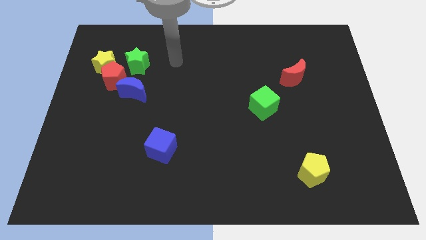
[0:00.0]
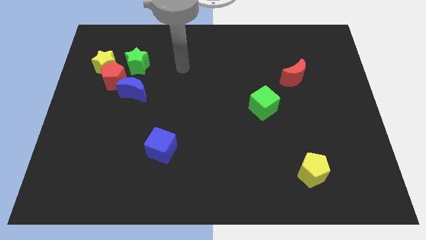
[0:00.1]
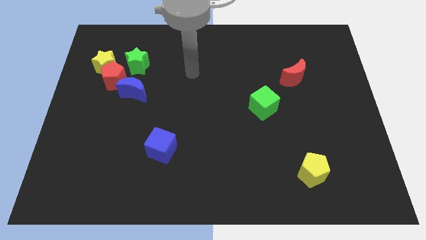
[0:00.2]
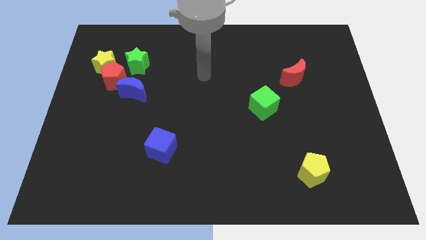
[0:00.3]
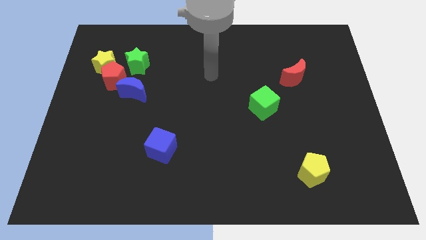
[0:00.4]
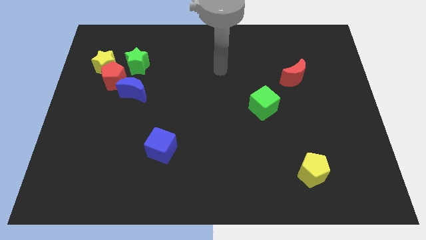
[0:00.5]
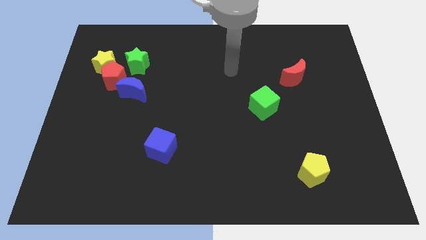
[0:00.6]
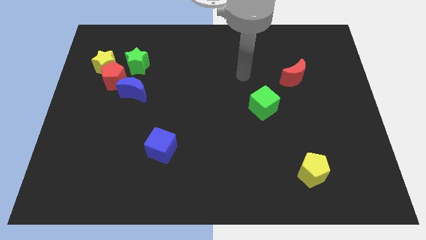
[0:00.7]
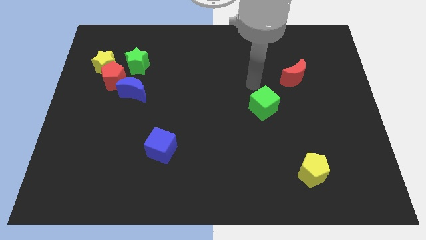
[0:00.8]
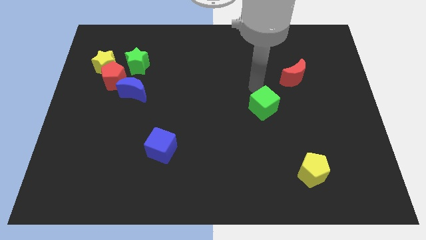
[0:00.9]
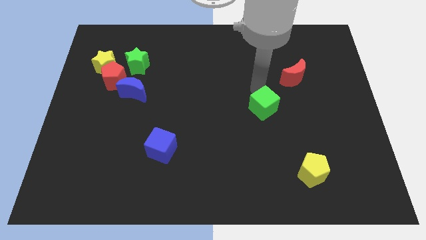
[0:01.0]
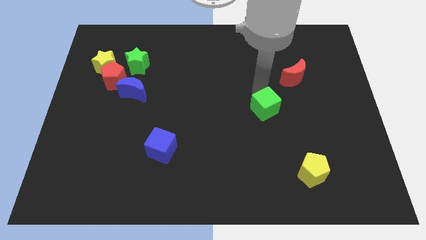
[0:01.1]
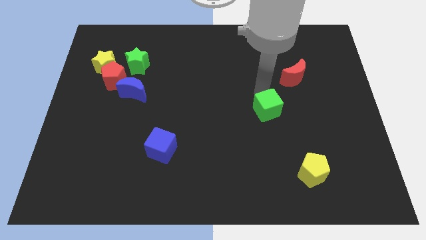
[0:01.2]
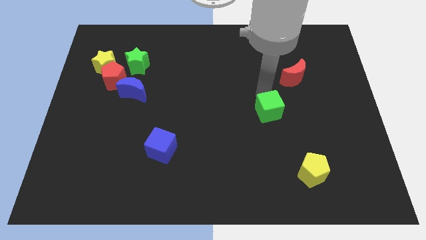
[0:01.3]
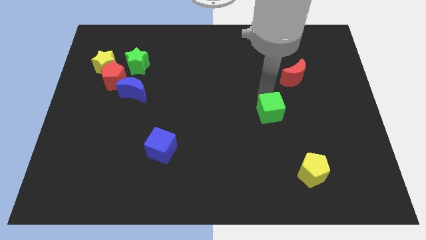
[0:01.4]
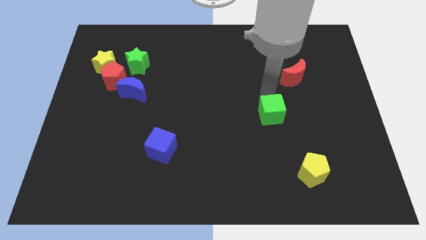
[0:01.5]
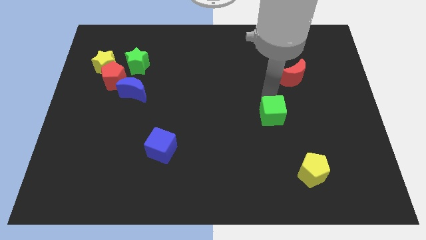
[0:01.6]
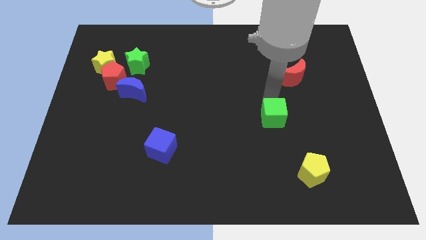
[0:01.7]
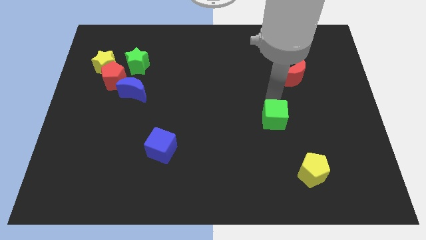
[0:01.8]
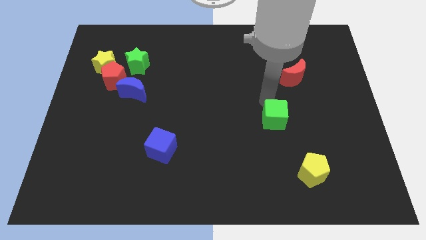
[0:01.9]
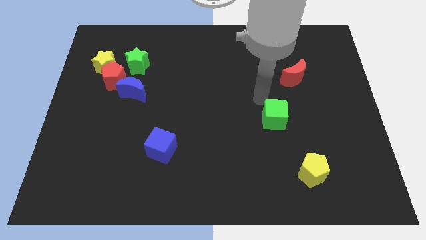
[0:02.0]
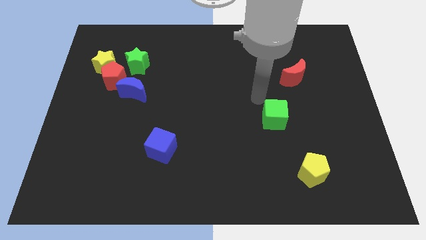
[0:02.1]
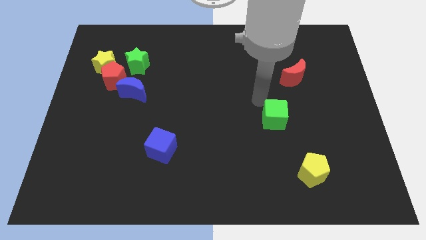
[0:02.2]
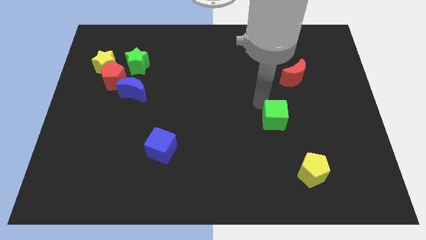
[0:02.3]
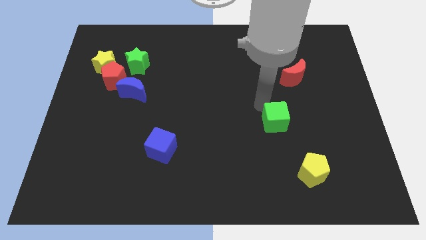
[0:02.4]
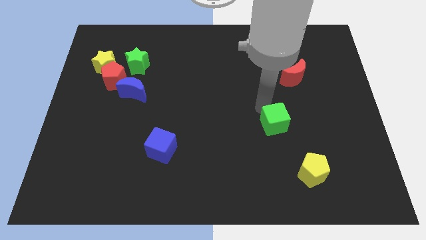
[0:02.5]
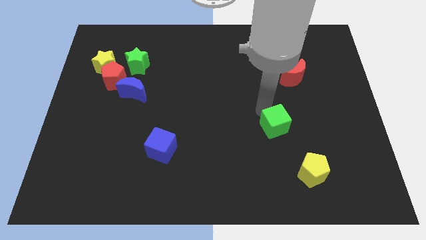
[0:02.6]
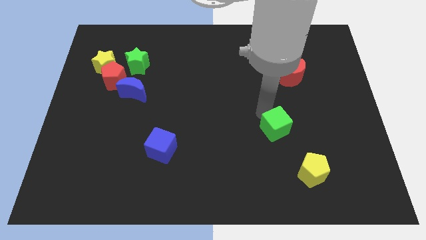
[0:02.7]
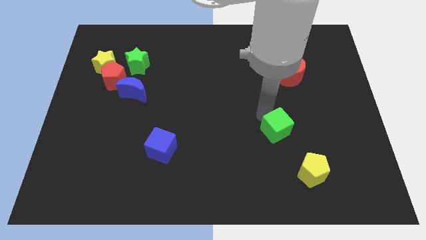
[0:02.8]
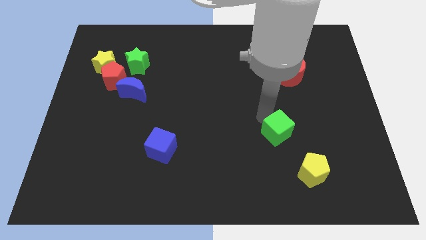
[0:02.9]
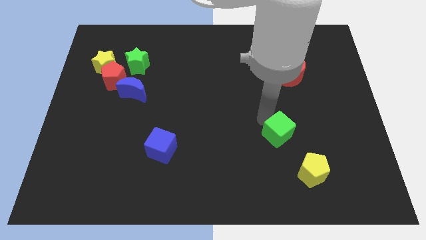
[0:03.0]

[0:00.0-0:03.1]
move the green cube somewhat downwards and right

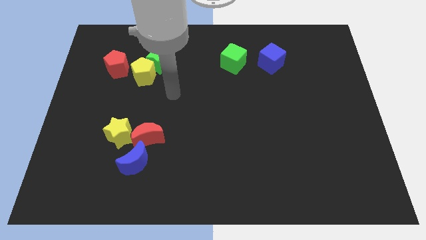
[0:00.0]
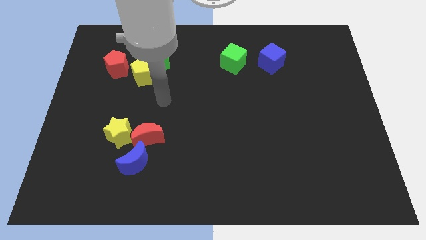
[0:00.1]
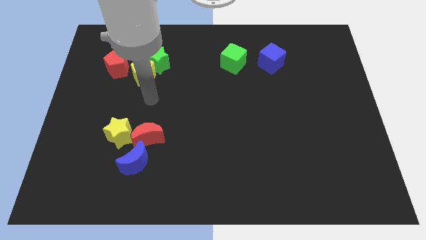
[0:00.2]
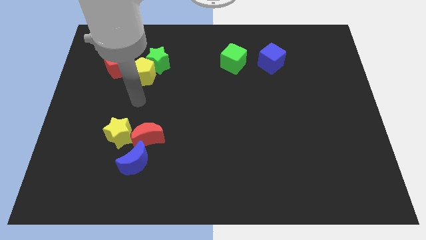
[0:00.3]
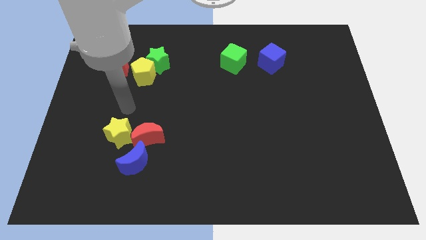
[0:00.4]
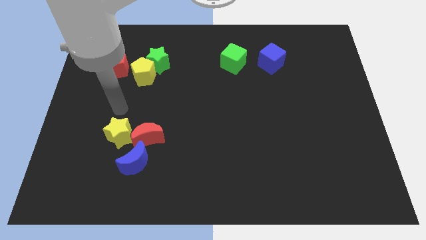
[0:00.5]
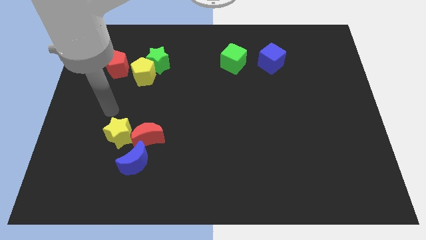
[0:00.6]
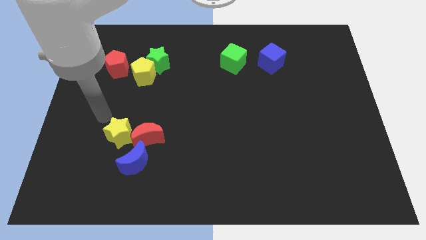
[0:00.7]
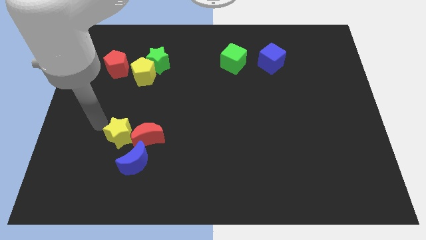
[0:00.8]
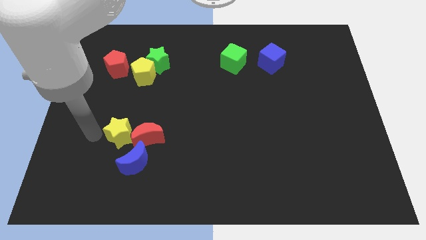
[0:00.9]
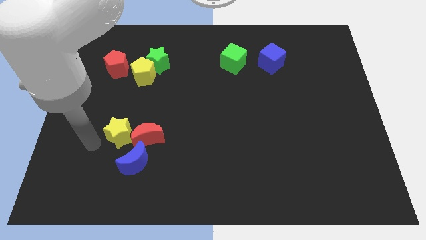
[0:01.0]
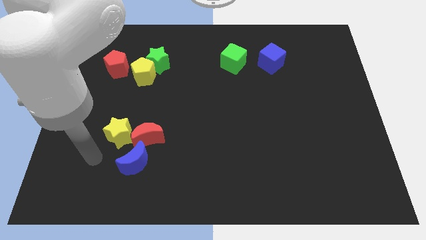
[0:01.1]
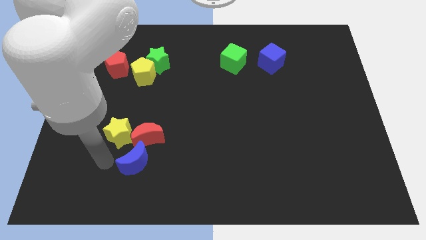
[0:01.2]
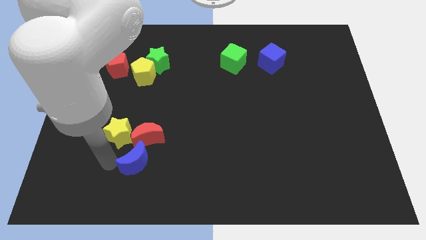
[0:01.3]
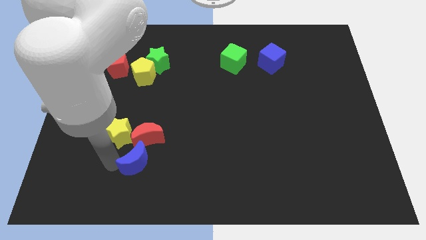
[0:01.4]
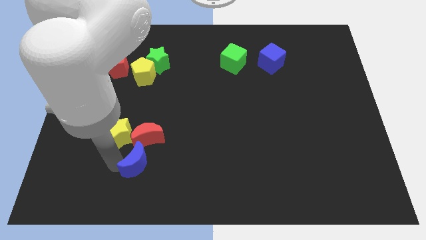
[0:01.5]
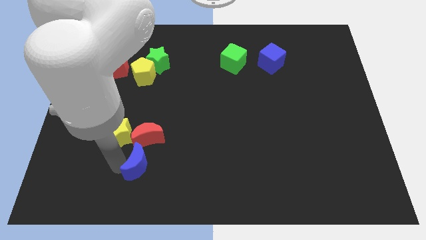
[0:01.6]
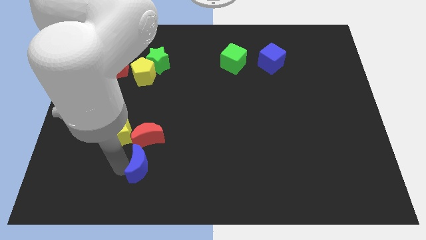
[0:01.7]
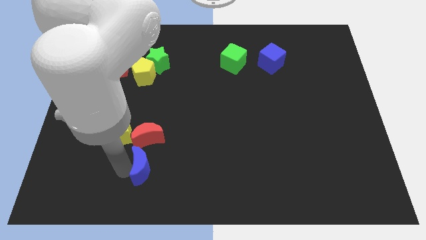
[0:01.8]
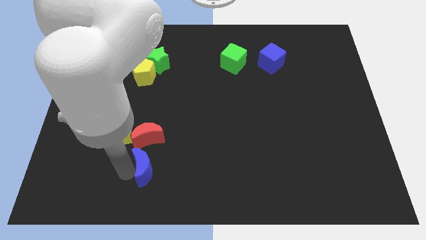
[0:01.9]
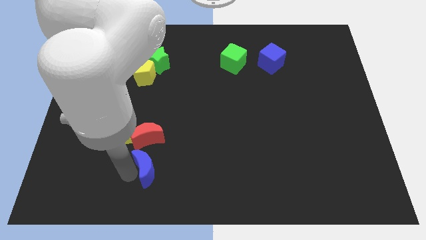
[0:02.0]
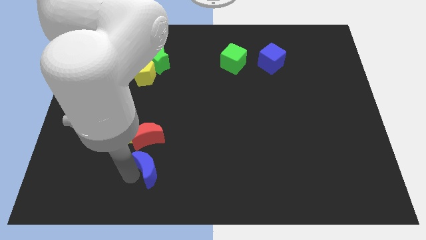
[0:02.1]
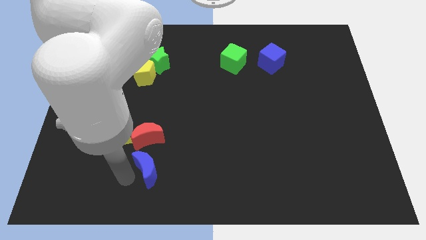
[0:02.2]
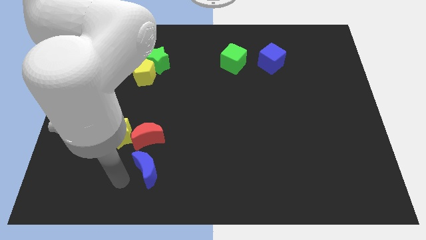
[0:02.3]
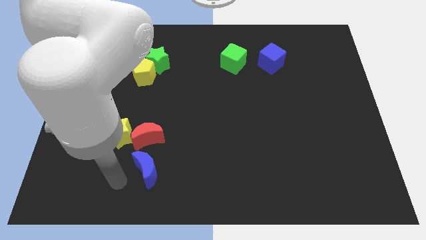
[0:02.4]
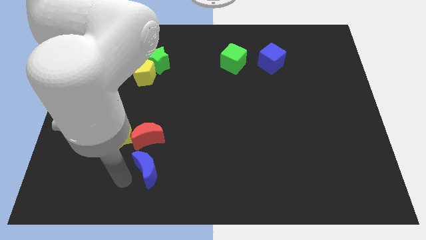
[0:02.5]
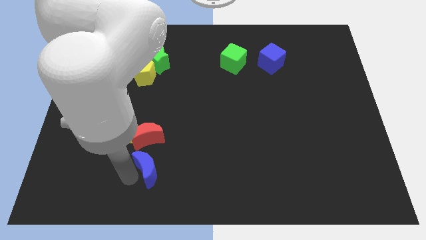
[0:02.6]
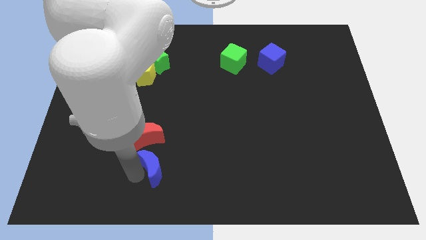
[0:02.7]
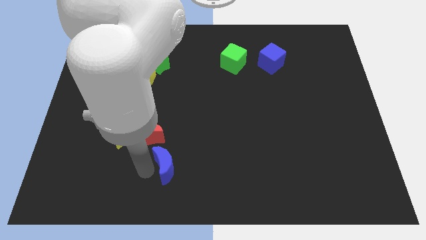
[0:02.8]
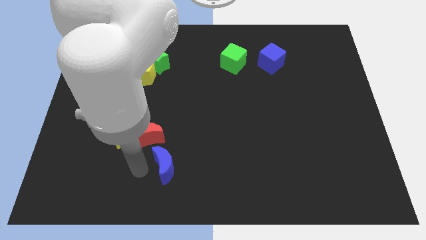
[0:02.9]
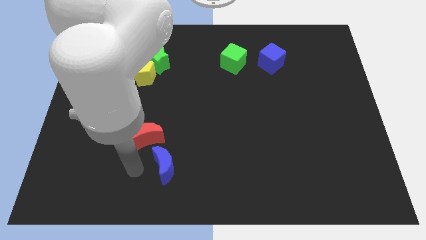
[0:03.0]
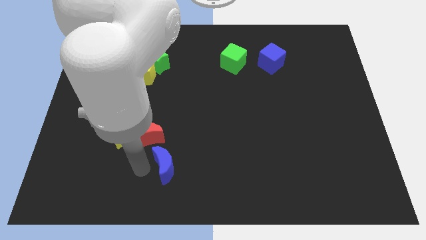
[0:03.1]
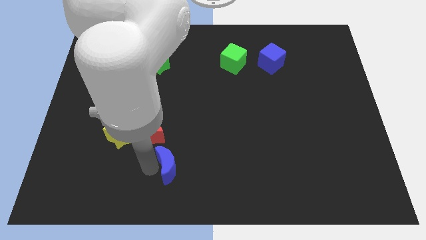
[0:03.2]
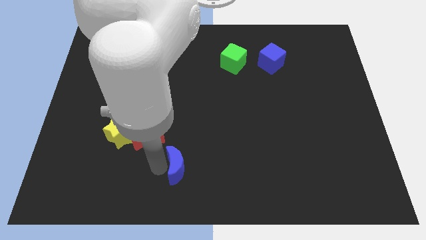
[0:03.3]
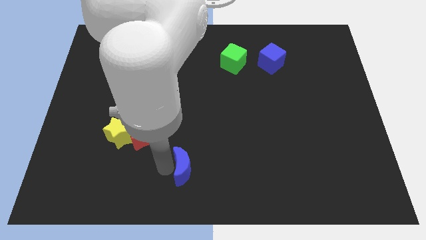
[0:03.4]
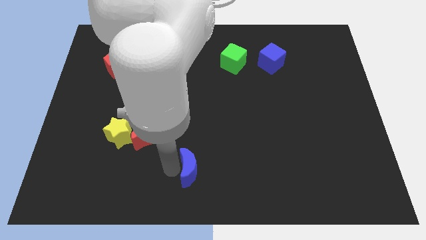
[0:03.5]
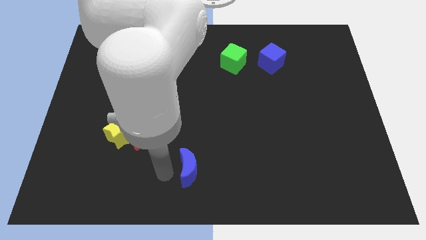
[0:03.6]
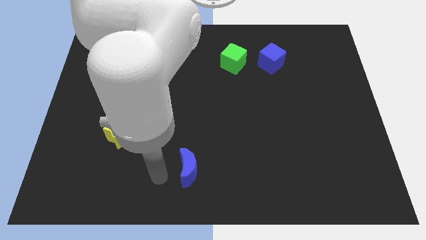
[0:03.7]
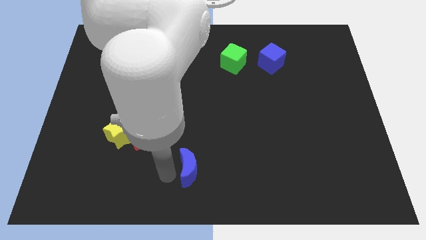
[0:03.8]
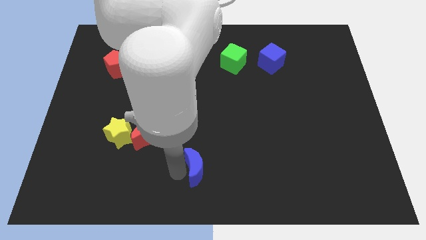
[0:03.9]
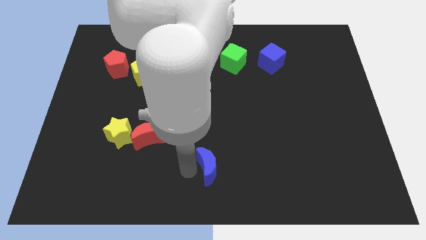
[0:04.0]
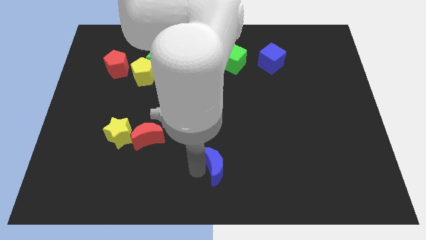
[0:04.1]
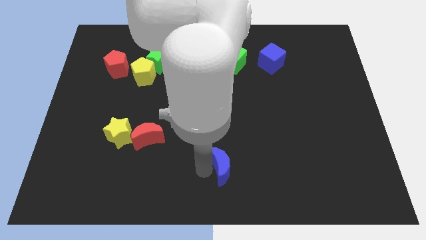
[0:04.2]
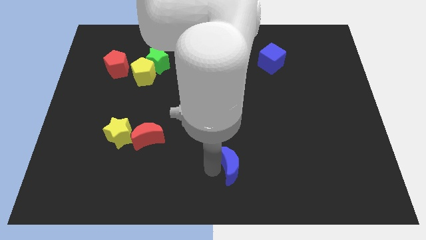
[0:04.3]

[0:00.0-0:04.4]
push the blue moon right

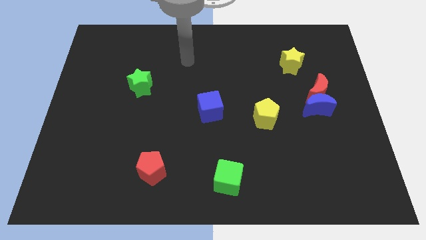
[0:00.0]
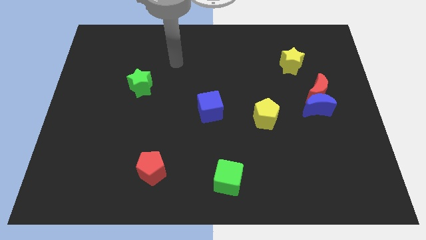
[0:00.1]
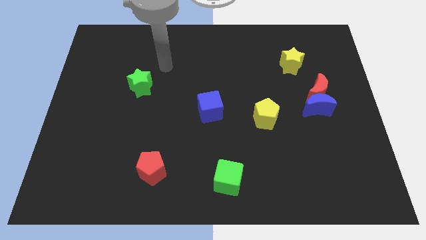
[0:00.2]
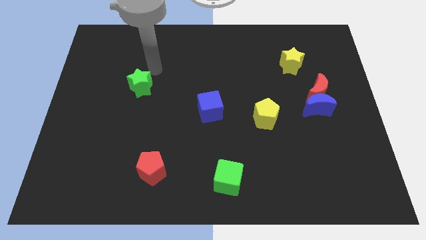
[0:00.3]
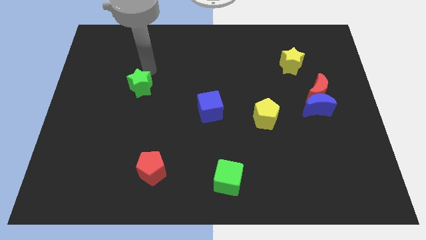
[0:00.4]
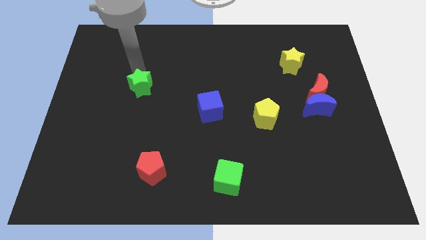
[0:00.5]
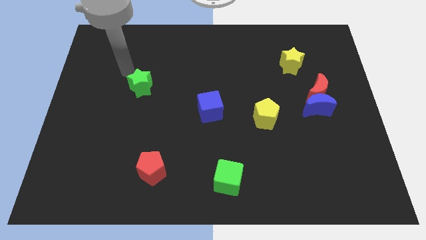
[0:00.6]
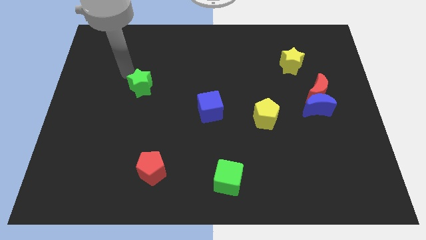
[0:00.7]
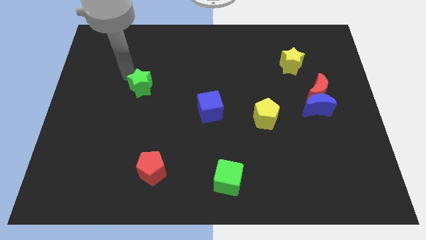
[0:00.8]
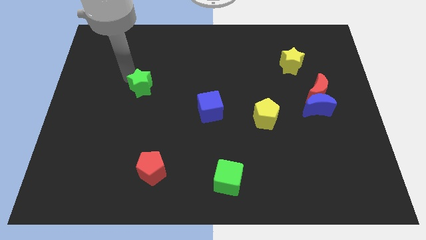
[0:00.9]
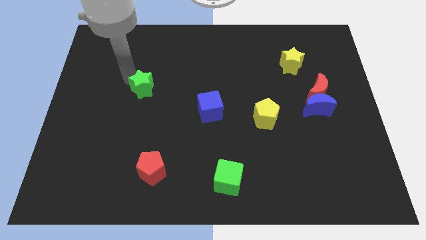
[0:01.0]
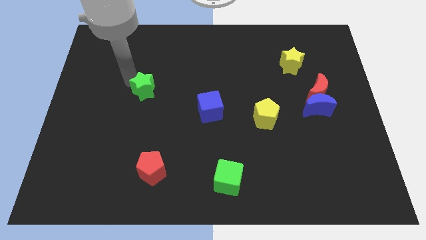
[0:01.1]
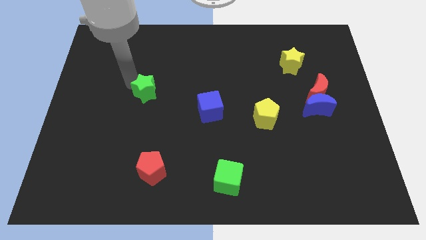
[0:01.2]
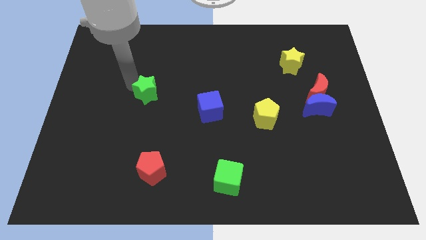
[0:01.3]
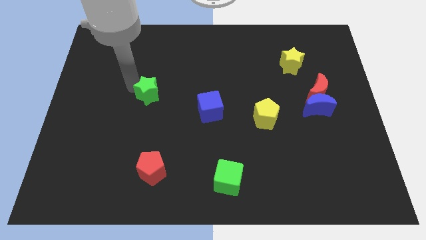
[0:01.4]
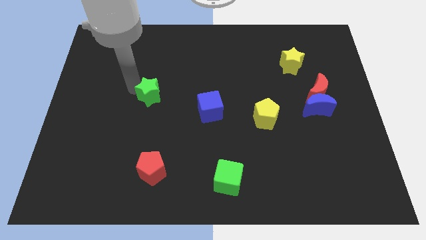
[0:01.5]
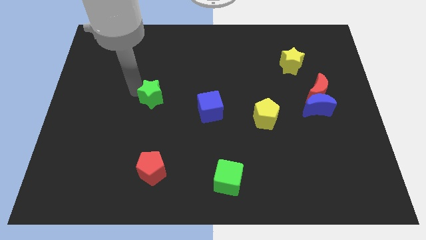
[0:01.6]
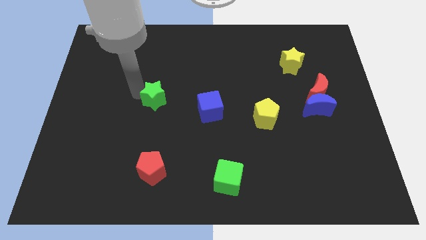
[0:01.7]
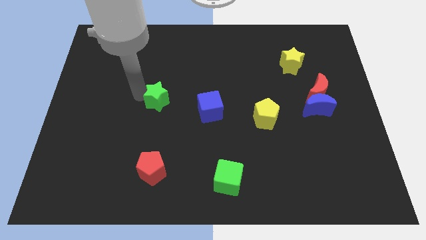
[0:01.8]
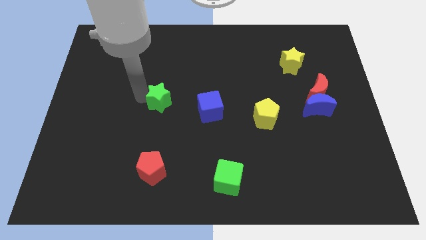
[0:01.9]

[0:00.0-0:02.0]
slide the green star slightly down and right diagonally
